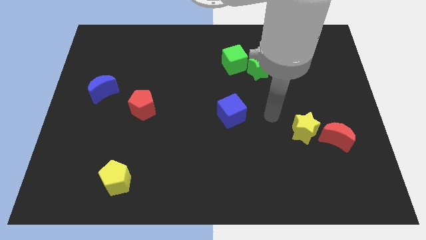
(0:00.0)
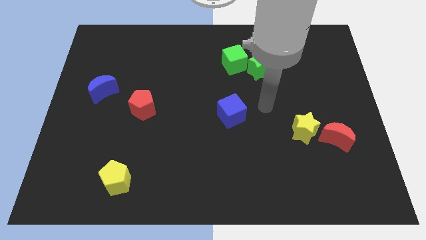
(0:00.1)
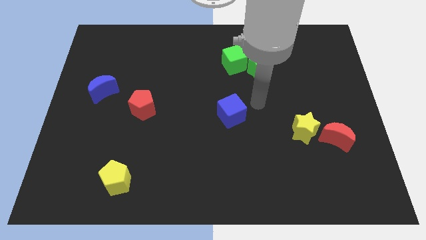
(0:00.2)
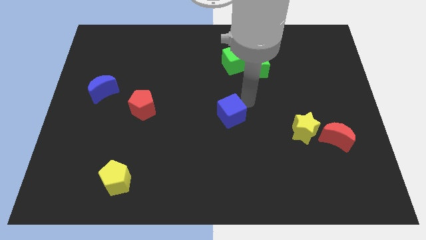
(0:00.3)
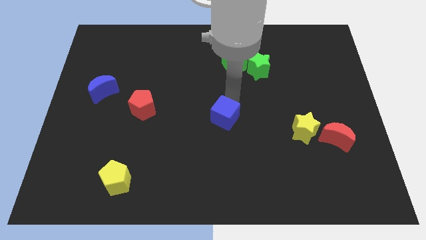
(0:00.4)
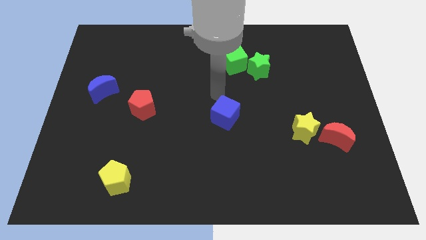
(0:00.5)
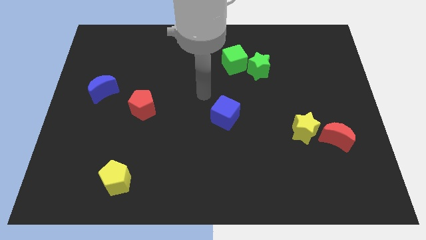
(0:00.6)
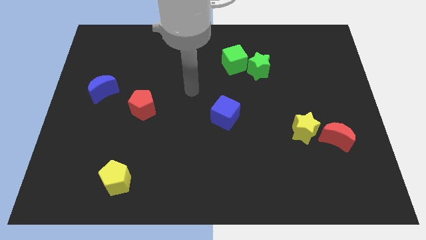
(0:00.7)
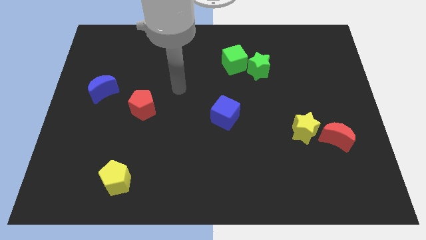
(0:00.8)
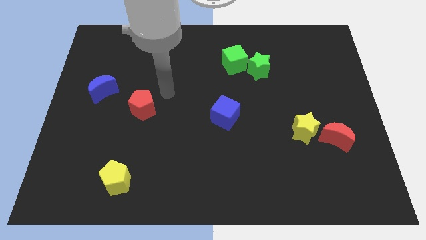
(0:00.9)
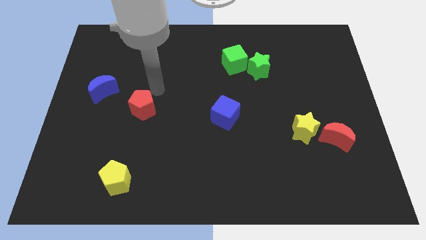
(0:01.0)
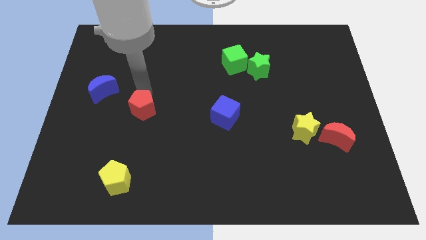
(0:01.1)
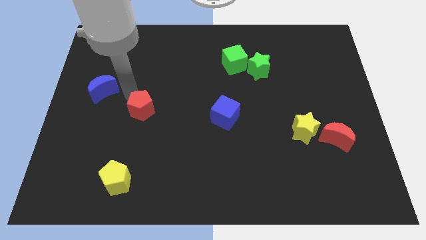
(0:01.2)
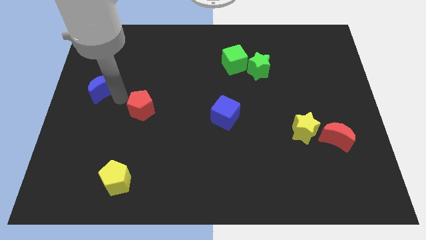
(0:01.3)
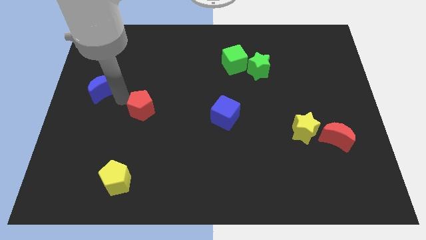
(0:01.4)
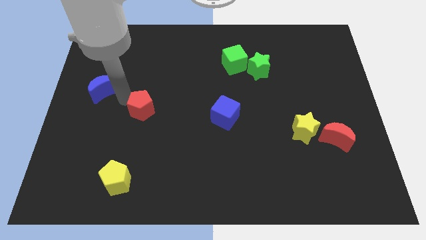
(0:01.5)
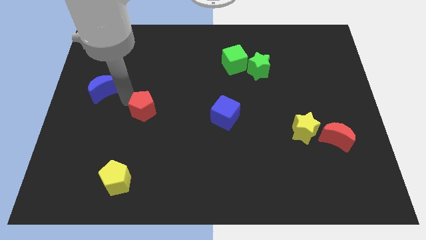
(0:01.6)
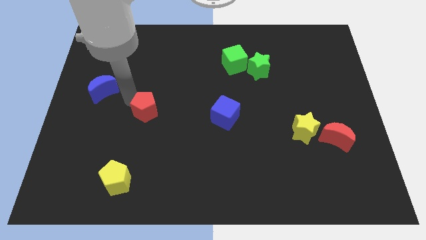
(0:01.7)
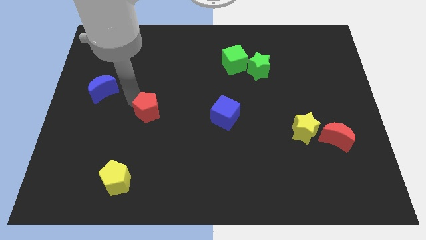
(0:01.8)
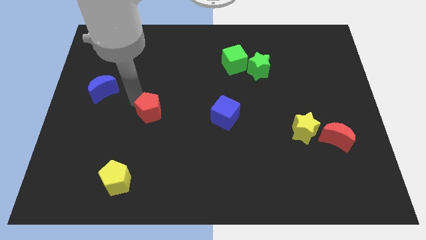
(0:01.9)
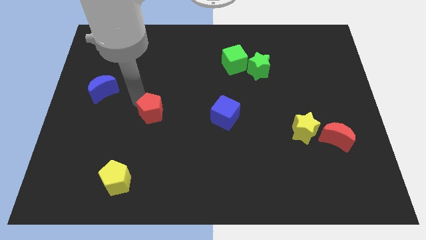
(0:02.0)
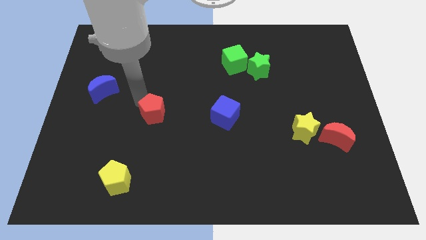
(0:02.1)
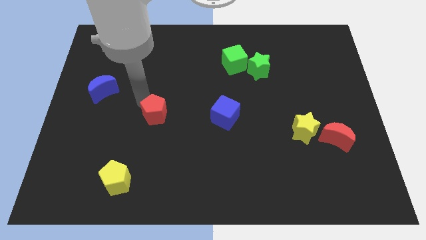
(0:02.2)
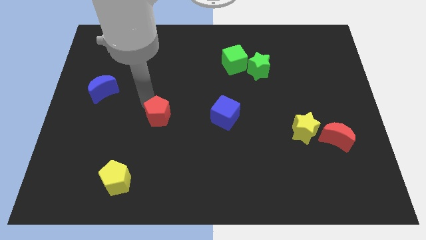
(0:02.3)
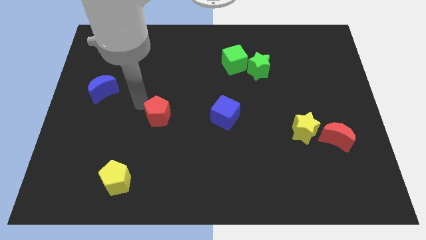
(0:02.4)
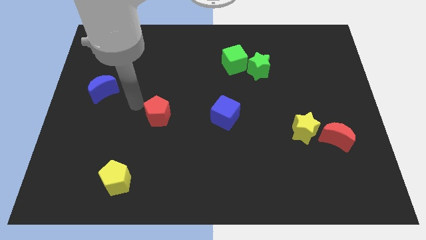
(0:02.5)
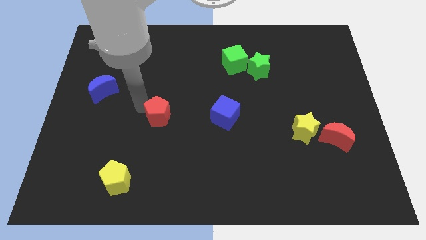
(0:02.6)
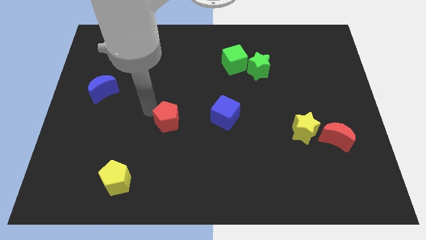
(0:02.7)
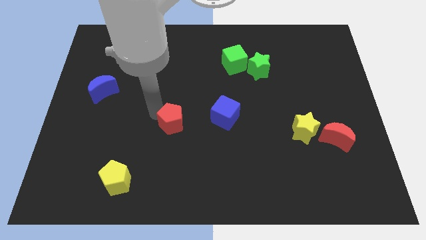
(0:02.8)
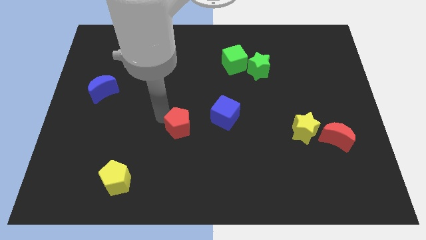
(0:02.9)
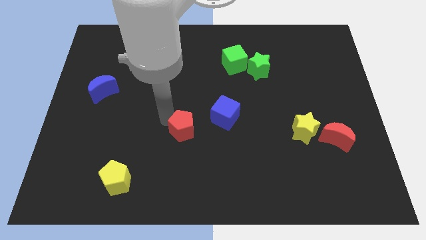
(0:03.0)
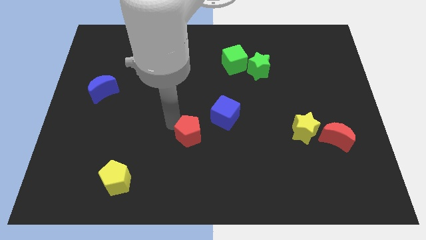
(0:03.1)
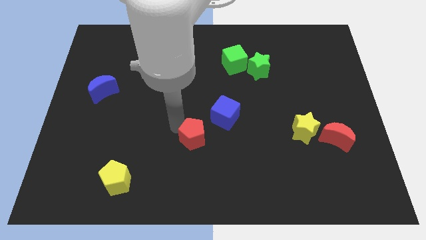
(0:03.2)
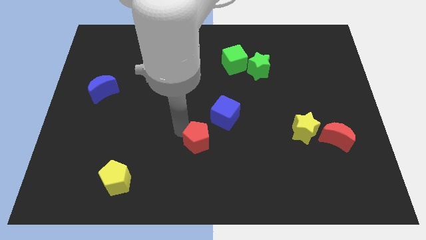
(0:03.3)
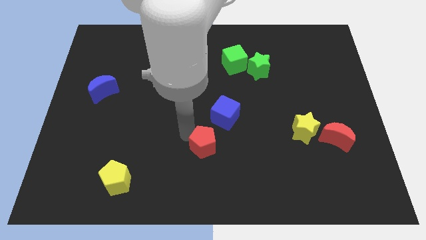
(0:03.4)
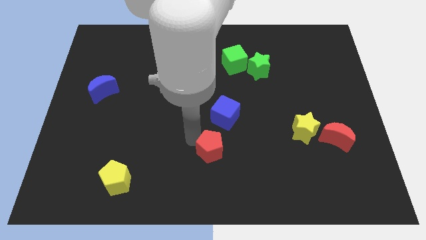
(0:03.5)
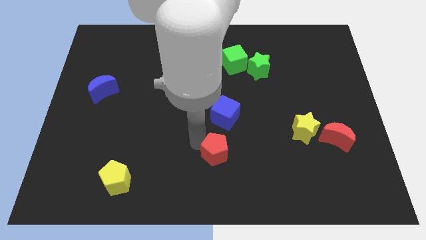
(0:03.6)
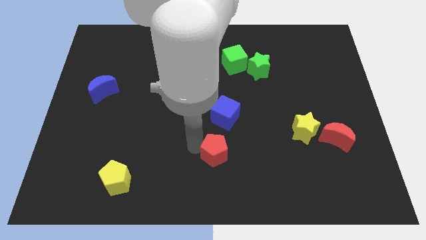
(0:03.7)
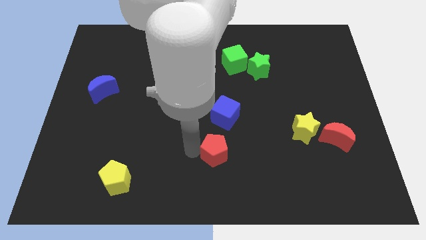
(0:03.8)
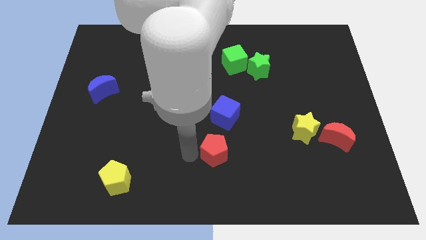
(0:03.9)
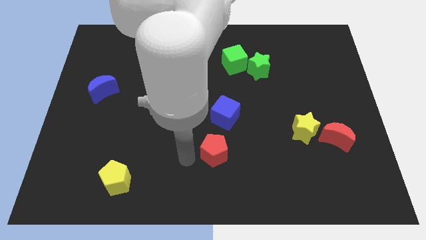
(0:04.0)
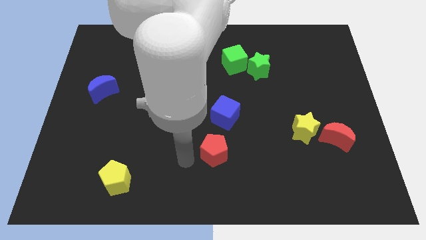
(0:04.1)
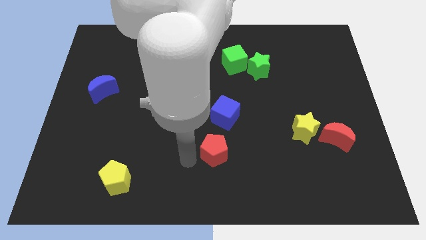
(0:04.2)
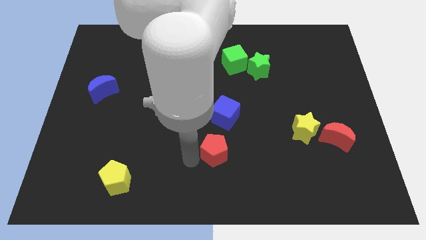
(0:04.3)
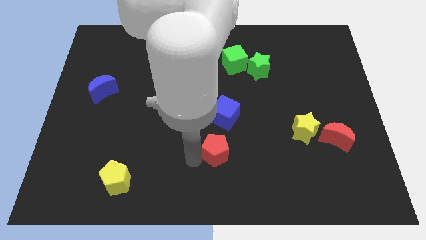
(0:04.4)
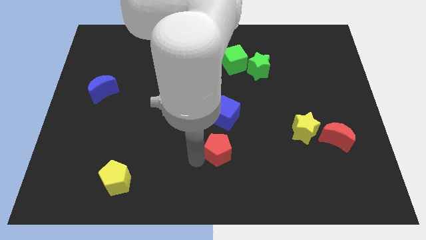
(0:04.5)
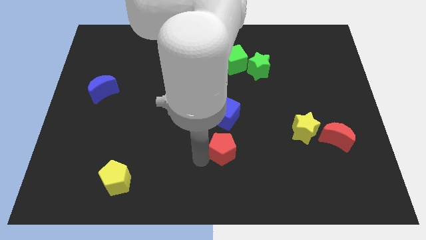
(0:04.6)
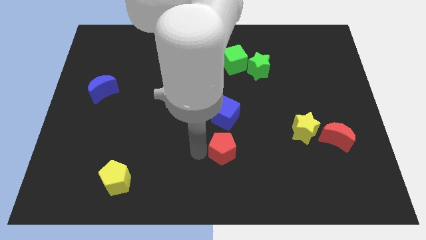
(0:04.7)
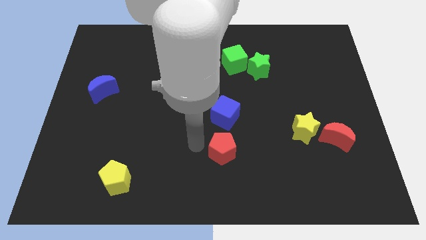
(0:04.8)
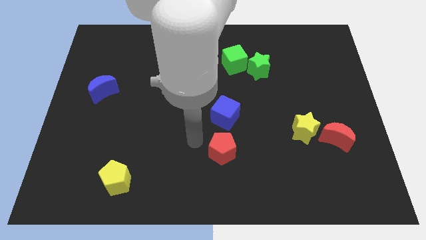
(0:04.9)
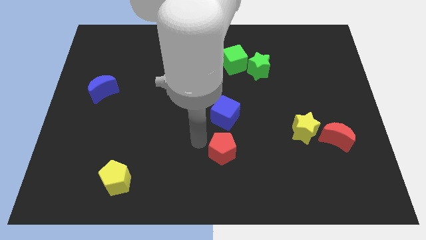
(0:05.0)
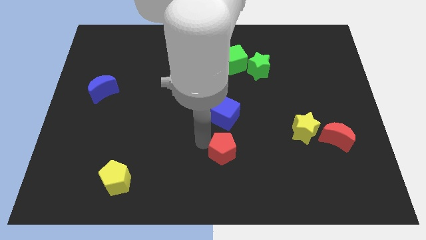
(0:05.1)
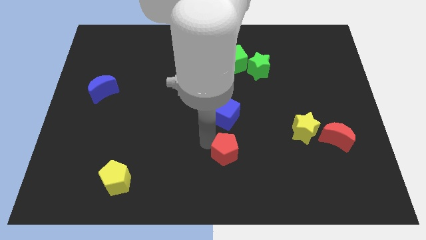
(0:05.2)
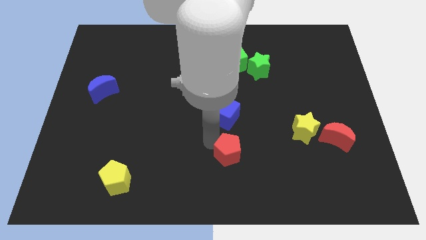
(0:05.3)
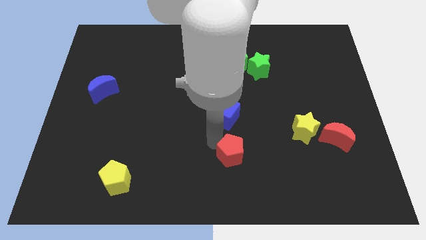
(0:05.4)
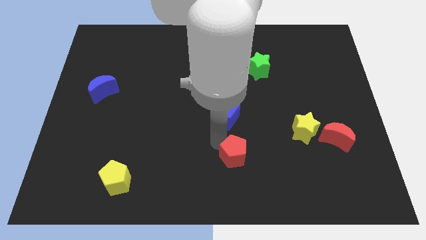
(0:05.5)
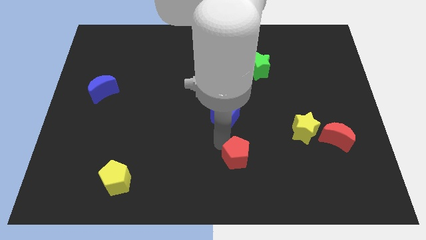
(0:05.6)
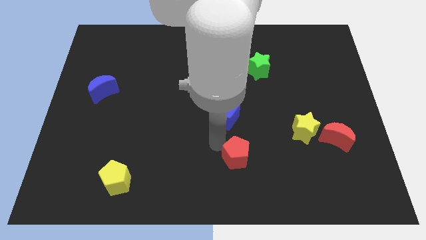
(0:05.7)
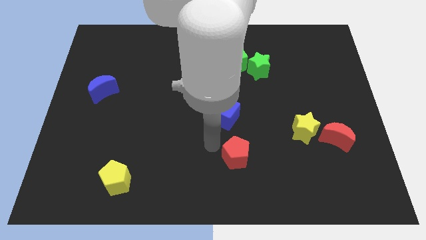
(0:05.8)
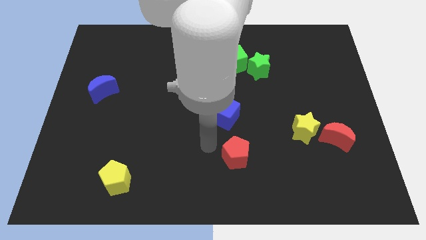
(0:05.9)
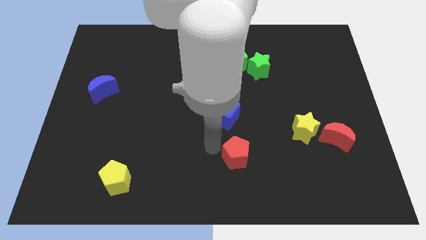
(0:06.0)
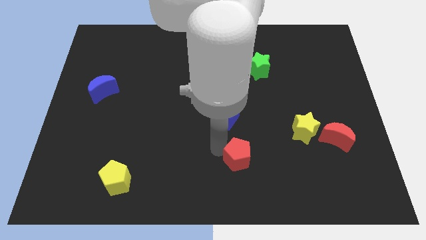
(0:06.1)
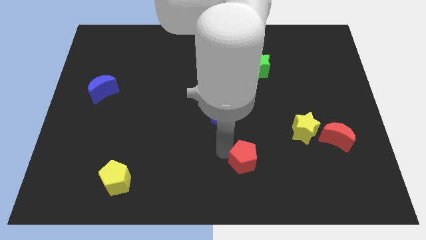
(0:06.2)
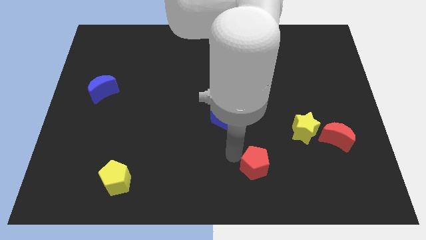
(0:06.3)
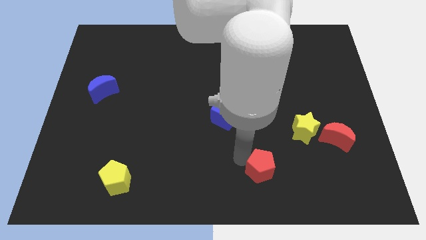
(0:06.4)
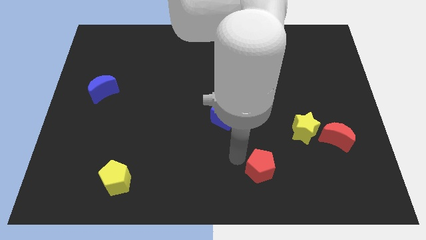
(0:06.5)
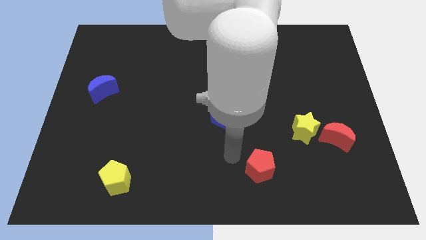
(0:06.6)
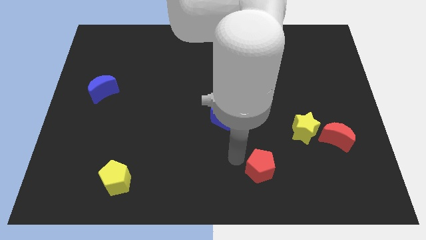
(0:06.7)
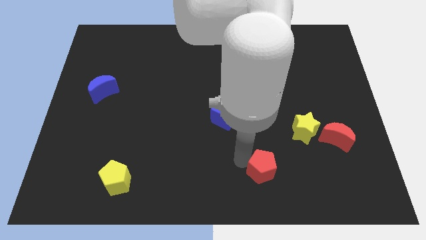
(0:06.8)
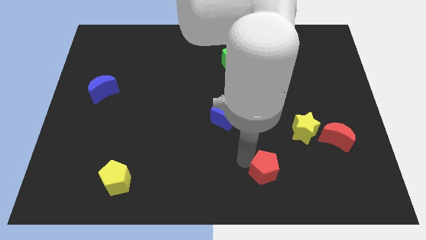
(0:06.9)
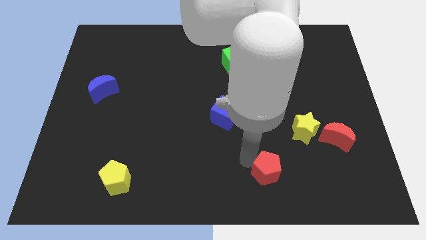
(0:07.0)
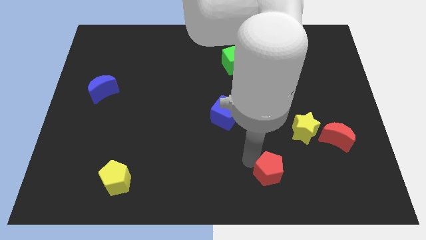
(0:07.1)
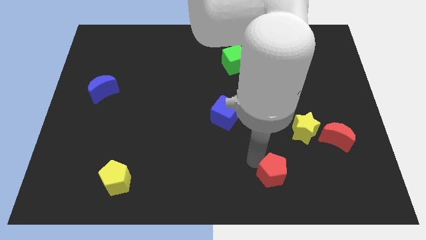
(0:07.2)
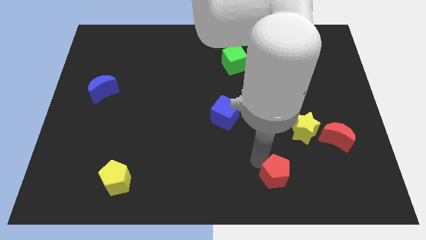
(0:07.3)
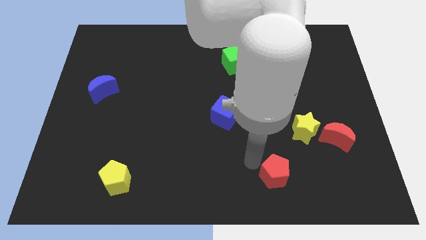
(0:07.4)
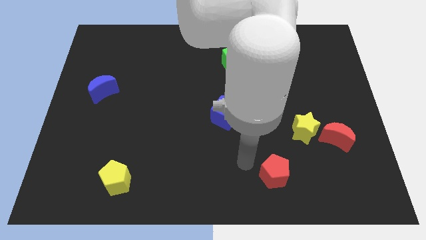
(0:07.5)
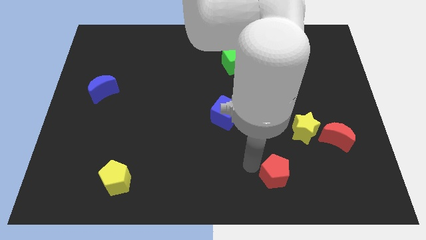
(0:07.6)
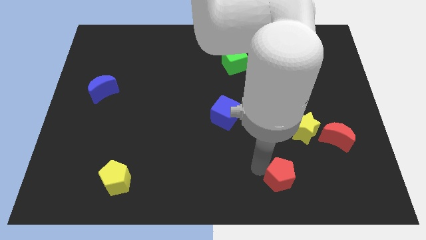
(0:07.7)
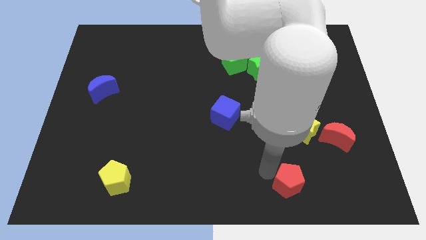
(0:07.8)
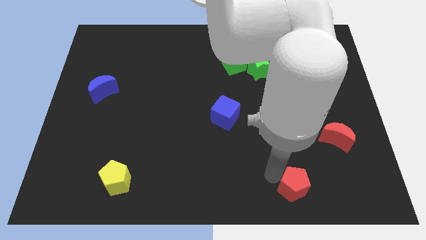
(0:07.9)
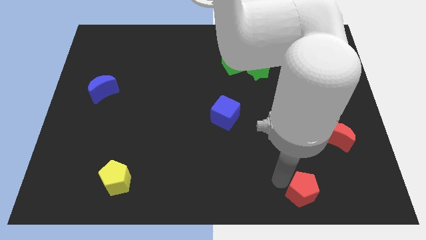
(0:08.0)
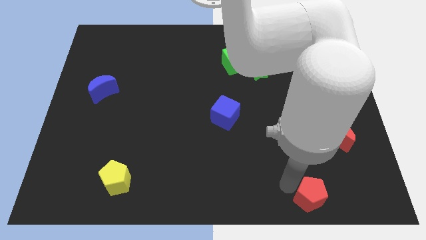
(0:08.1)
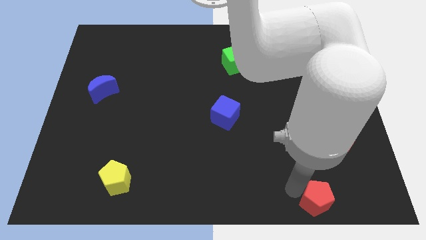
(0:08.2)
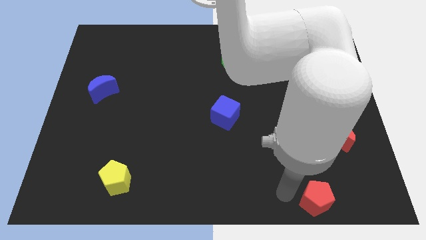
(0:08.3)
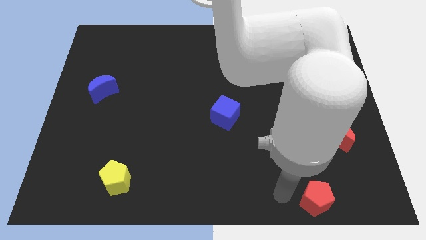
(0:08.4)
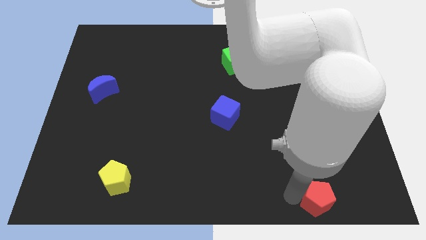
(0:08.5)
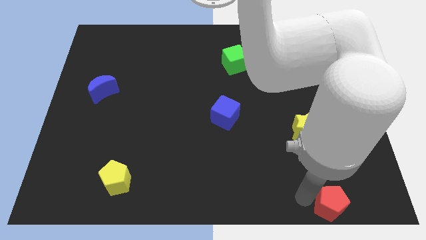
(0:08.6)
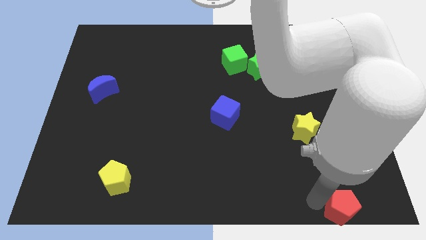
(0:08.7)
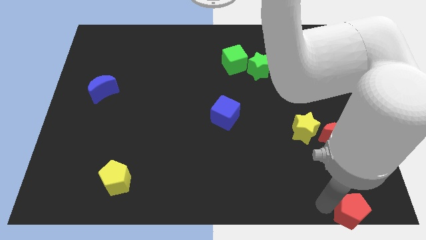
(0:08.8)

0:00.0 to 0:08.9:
push the red pentagon to the bottom right of the board
